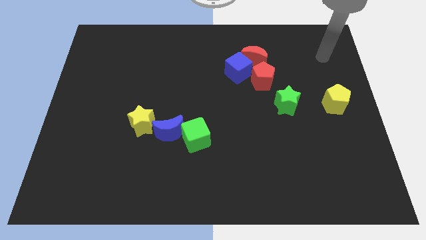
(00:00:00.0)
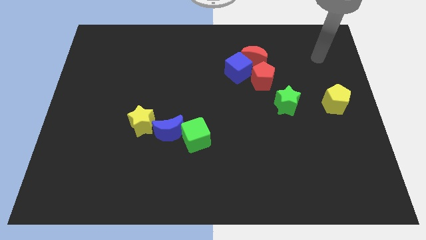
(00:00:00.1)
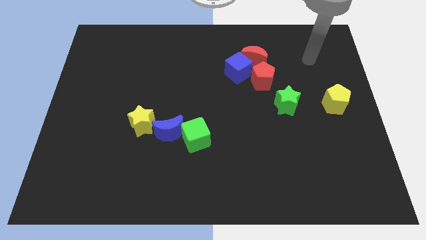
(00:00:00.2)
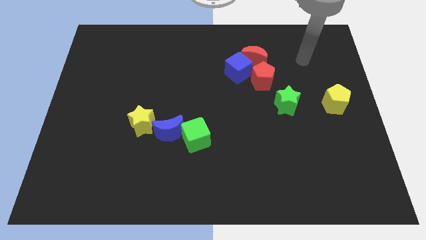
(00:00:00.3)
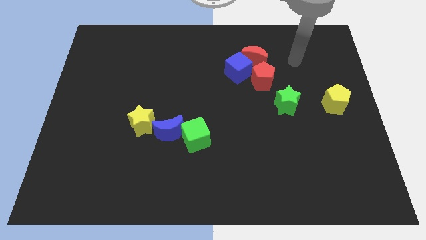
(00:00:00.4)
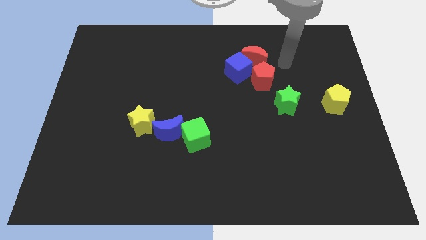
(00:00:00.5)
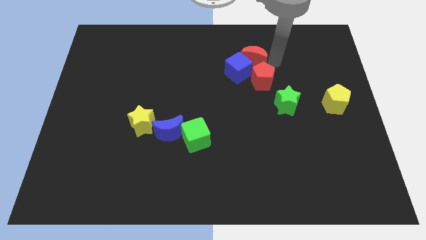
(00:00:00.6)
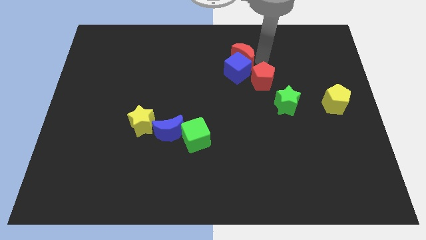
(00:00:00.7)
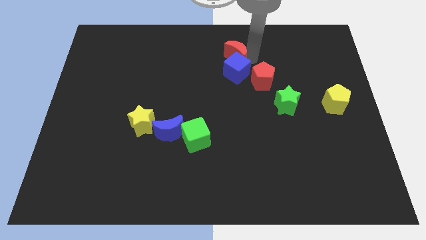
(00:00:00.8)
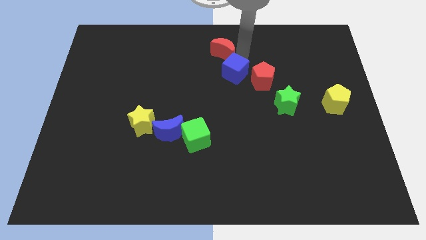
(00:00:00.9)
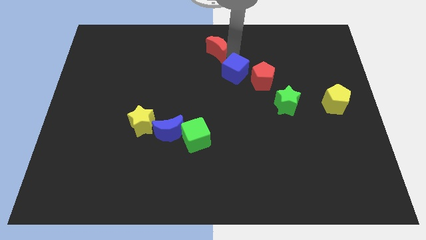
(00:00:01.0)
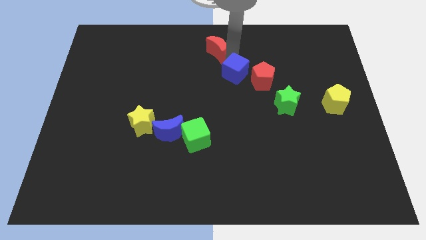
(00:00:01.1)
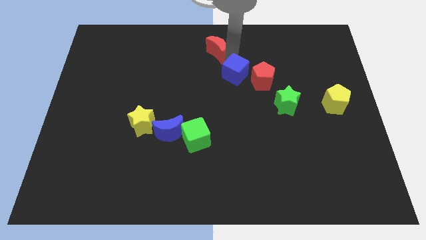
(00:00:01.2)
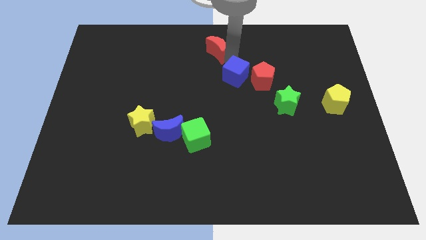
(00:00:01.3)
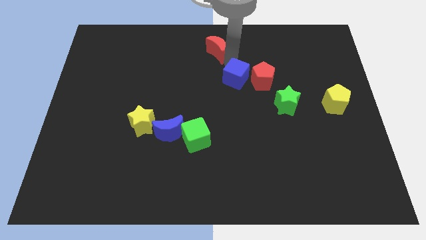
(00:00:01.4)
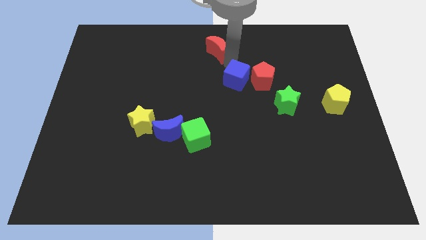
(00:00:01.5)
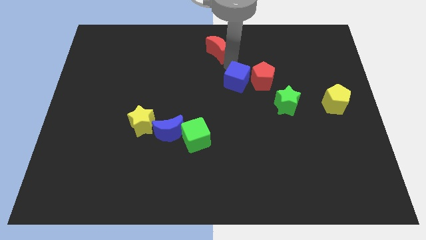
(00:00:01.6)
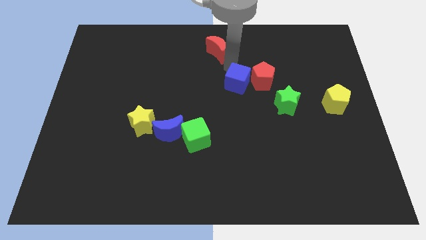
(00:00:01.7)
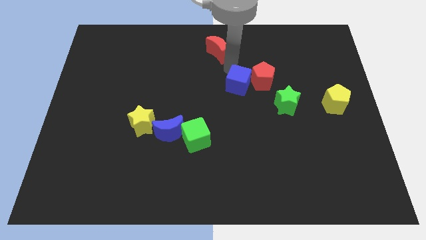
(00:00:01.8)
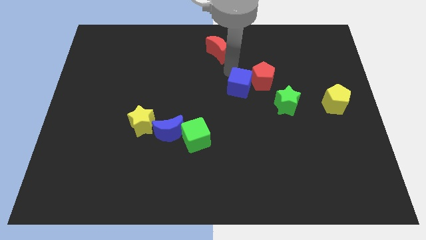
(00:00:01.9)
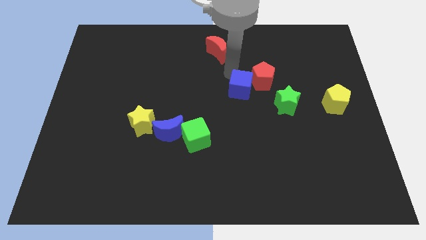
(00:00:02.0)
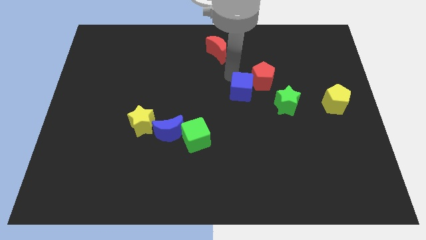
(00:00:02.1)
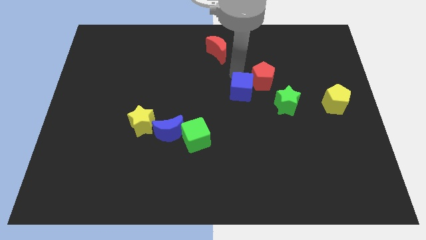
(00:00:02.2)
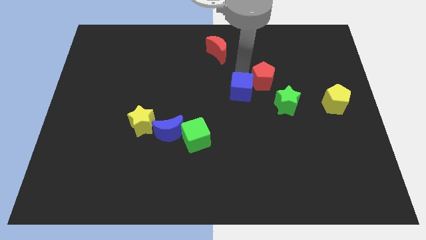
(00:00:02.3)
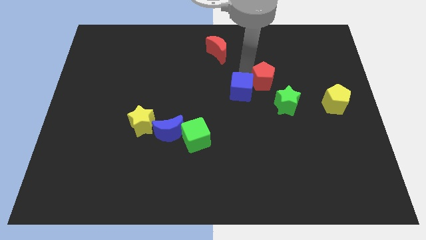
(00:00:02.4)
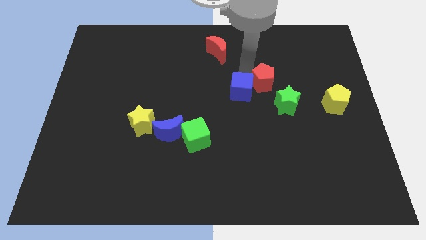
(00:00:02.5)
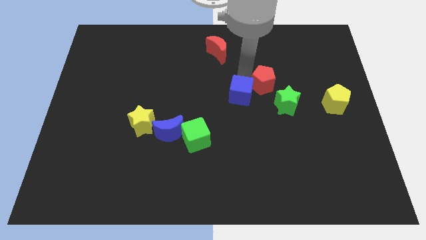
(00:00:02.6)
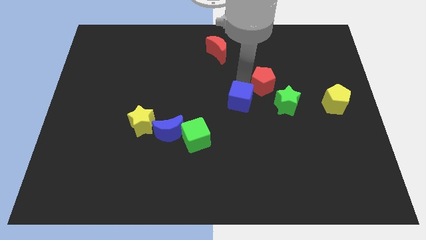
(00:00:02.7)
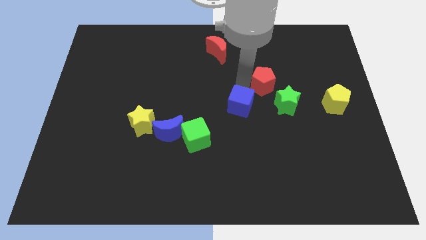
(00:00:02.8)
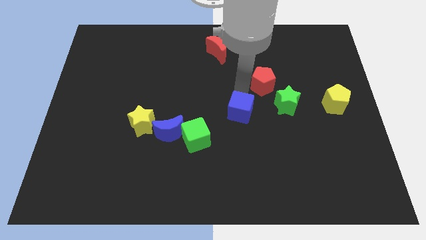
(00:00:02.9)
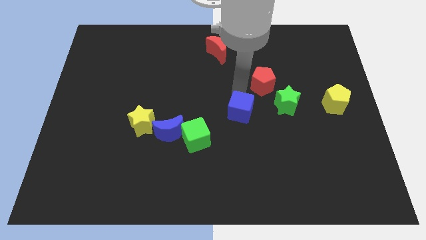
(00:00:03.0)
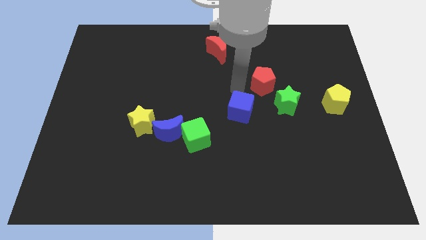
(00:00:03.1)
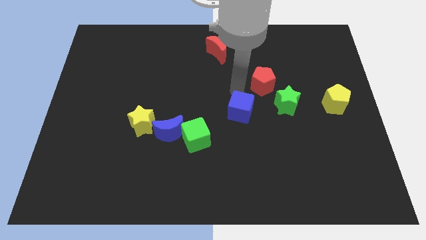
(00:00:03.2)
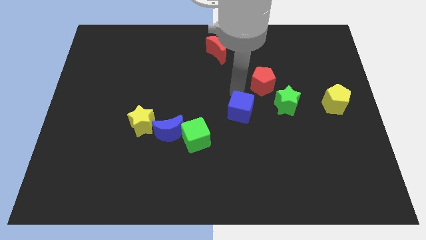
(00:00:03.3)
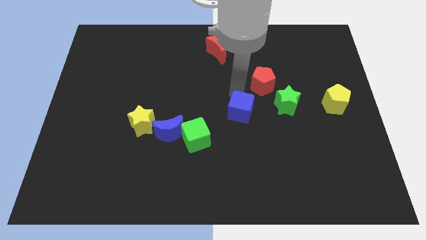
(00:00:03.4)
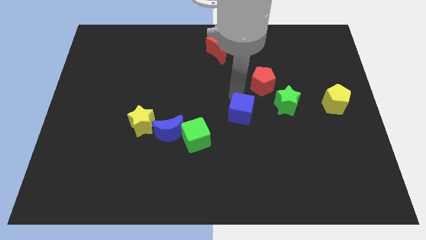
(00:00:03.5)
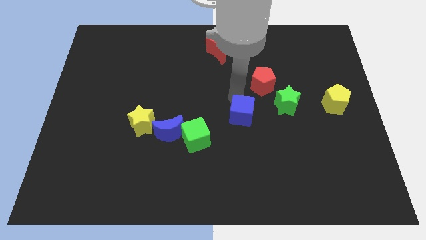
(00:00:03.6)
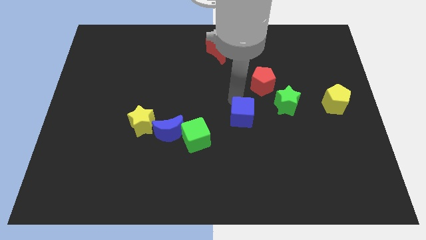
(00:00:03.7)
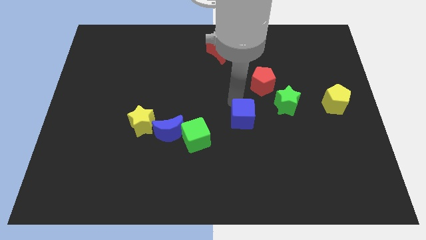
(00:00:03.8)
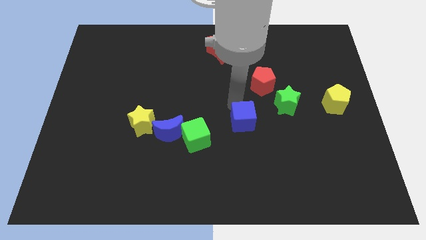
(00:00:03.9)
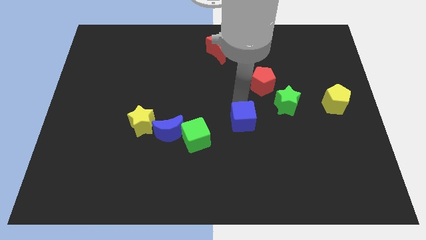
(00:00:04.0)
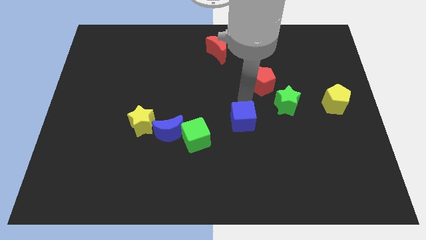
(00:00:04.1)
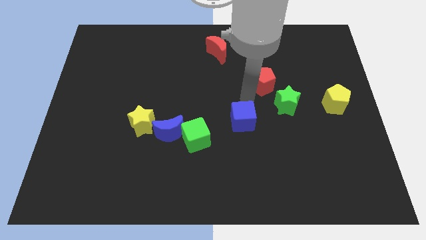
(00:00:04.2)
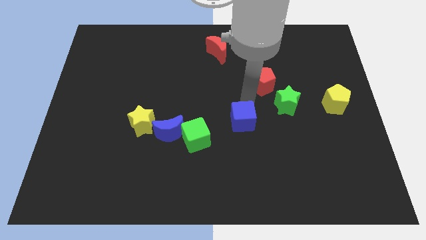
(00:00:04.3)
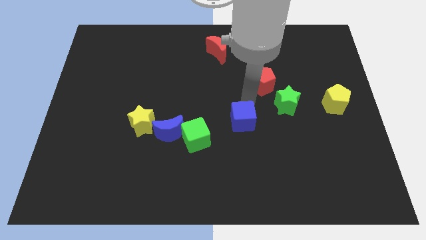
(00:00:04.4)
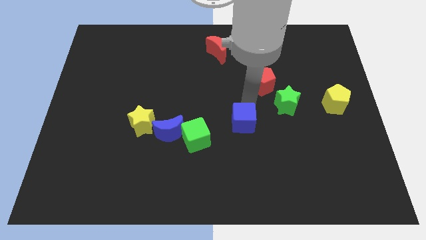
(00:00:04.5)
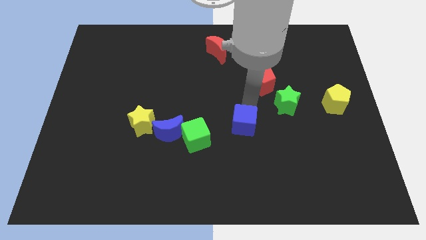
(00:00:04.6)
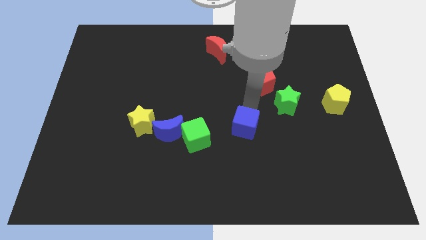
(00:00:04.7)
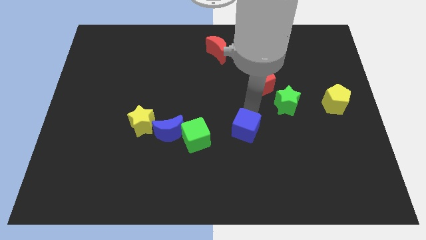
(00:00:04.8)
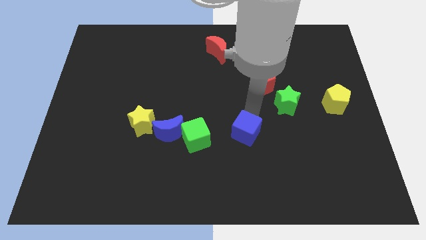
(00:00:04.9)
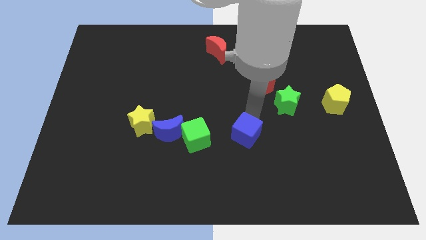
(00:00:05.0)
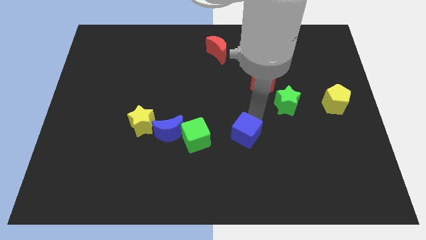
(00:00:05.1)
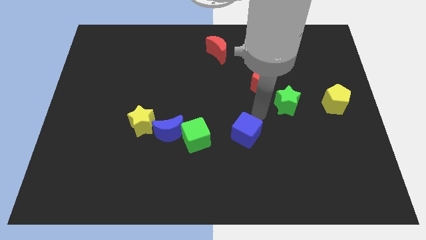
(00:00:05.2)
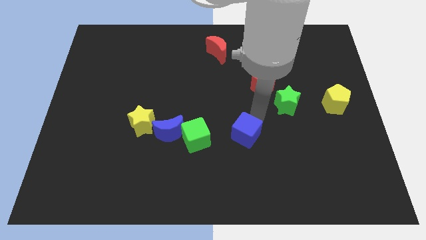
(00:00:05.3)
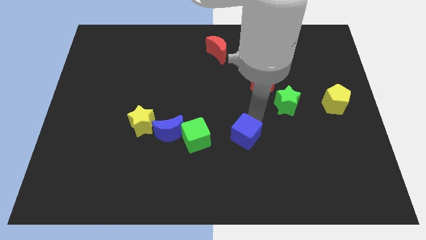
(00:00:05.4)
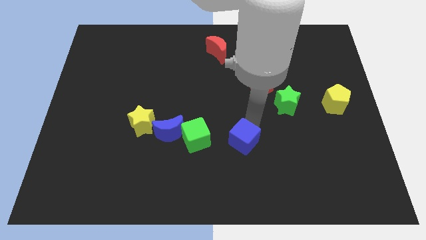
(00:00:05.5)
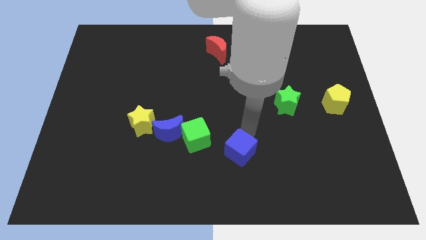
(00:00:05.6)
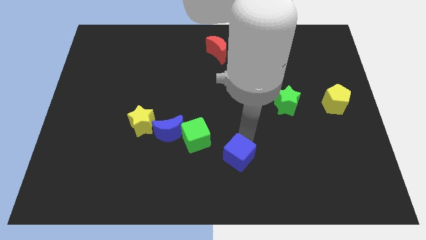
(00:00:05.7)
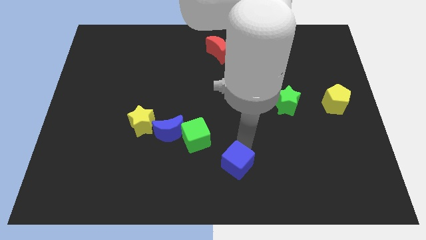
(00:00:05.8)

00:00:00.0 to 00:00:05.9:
put the blue cube to the bottom side

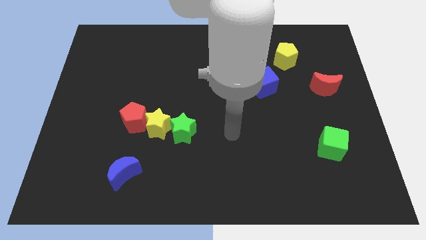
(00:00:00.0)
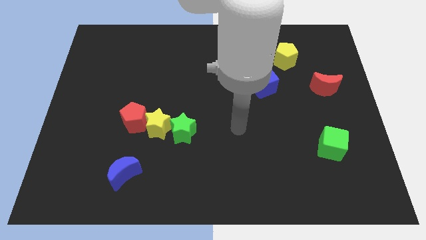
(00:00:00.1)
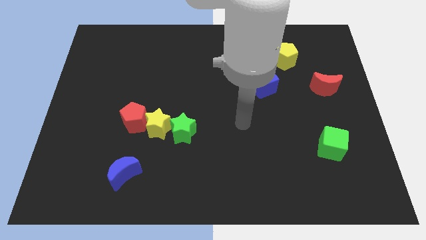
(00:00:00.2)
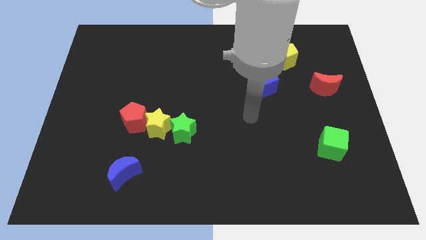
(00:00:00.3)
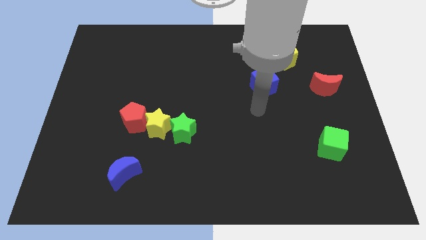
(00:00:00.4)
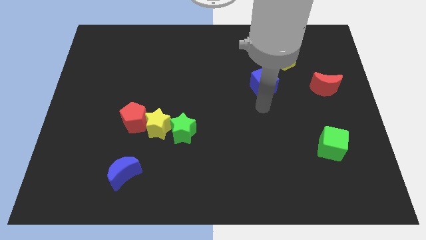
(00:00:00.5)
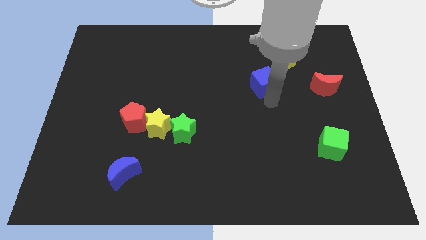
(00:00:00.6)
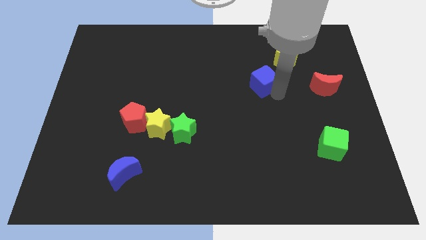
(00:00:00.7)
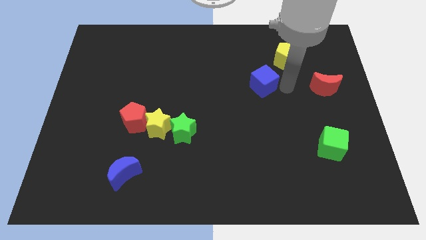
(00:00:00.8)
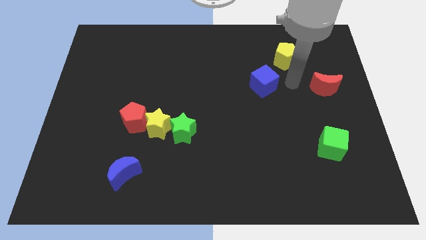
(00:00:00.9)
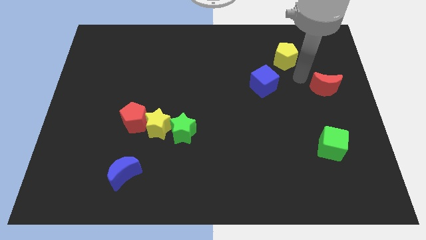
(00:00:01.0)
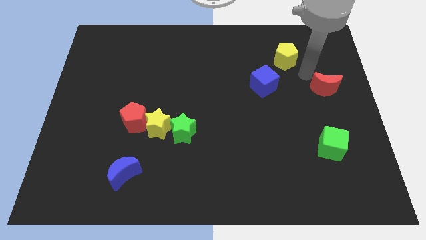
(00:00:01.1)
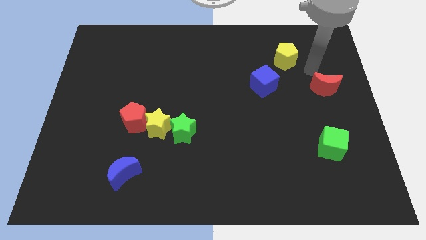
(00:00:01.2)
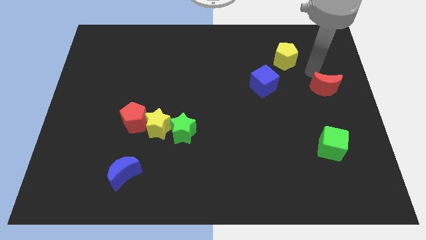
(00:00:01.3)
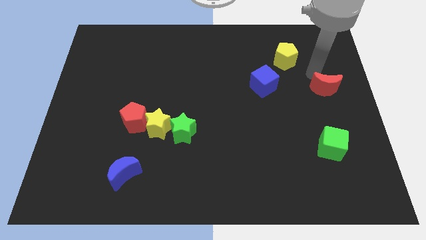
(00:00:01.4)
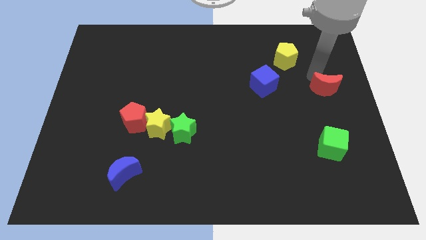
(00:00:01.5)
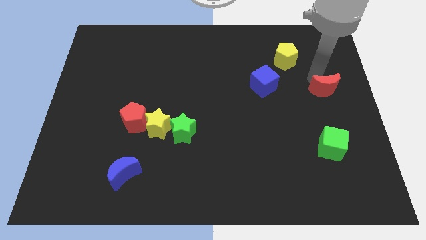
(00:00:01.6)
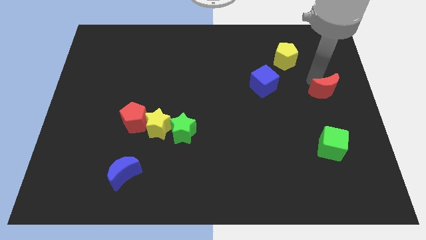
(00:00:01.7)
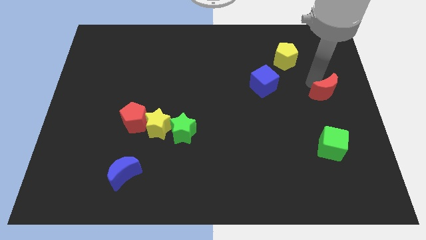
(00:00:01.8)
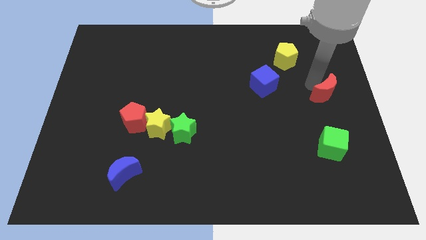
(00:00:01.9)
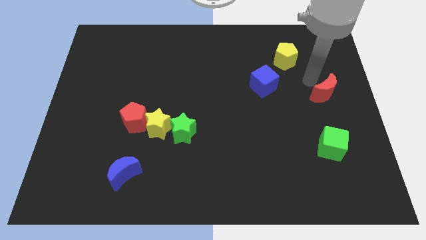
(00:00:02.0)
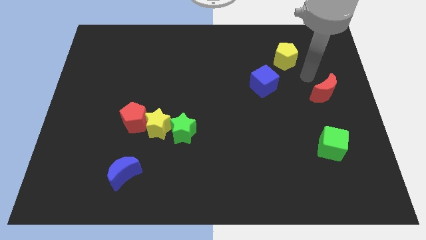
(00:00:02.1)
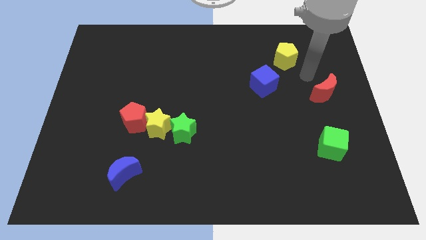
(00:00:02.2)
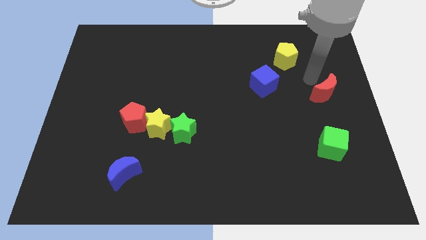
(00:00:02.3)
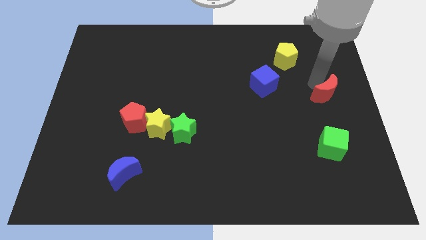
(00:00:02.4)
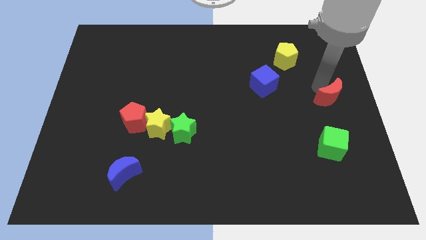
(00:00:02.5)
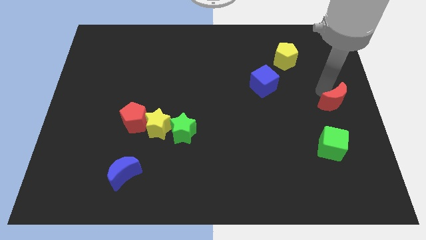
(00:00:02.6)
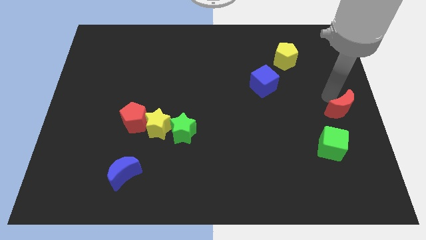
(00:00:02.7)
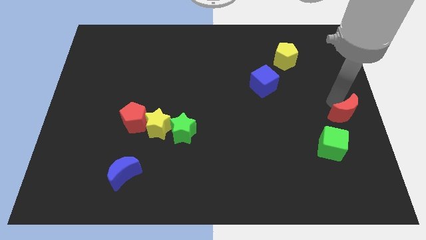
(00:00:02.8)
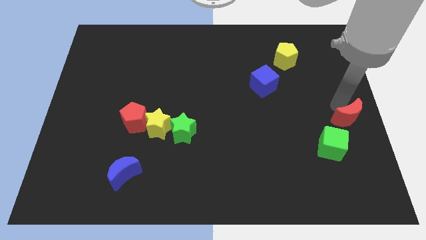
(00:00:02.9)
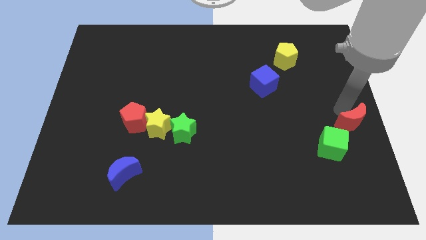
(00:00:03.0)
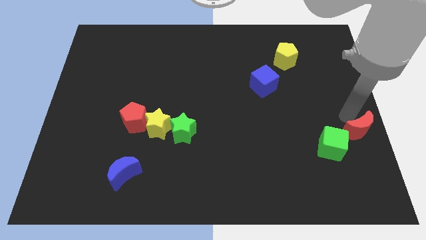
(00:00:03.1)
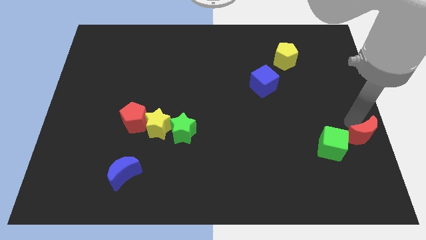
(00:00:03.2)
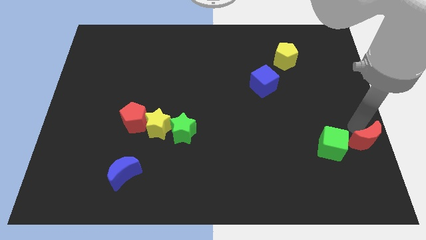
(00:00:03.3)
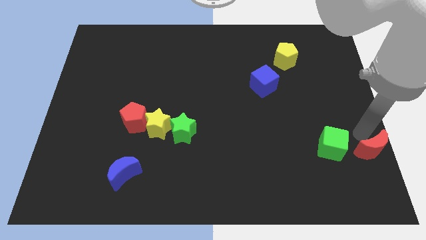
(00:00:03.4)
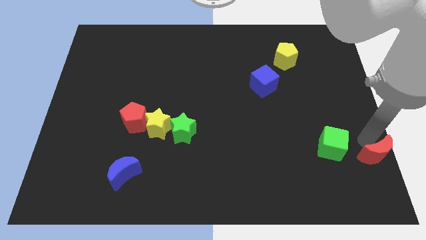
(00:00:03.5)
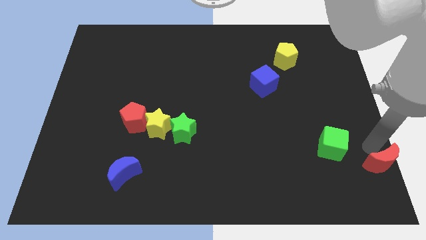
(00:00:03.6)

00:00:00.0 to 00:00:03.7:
put the red moon to the bottom right corner
